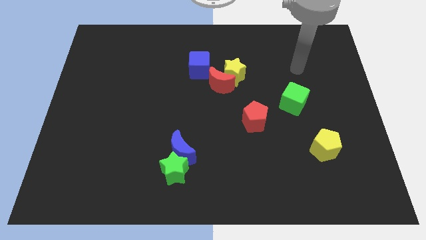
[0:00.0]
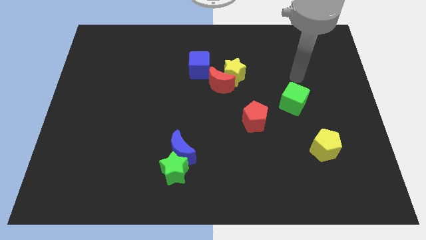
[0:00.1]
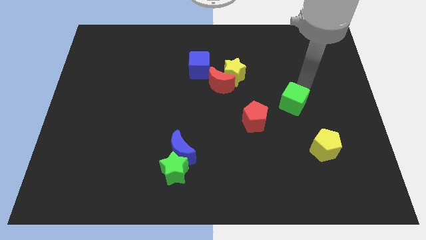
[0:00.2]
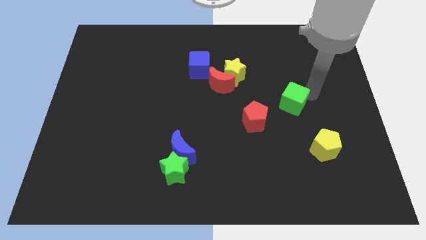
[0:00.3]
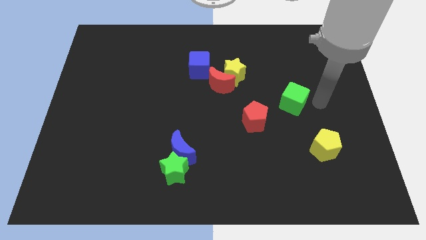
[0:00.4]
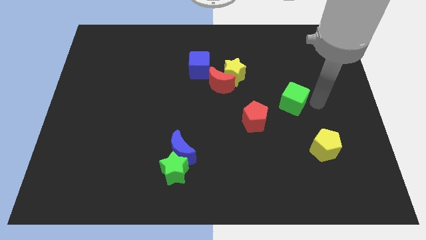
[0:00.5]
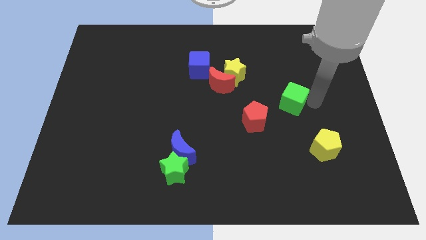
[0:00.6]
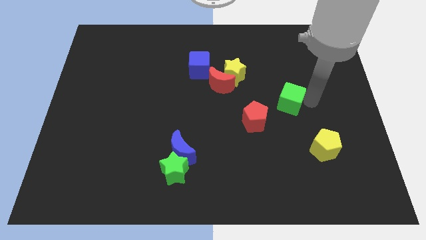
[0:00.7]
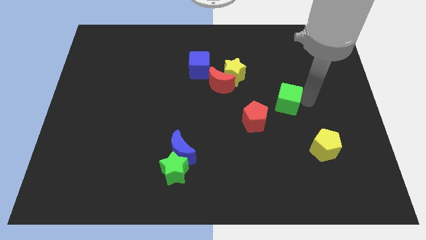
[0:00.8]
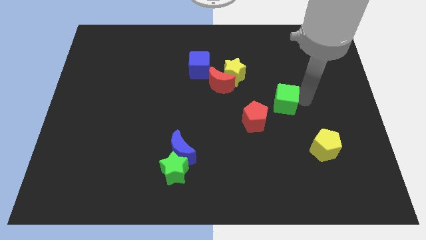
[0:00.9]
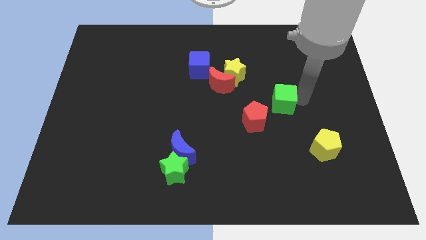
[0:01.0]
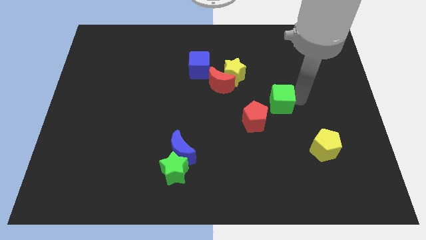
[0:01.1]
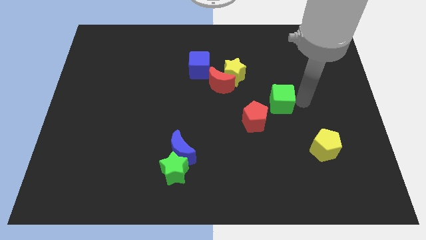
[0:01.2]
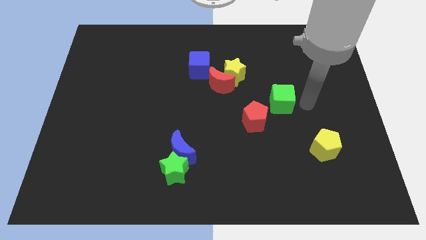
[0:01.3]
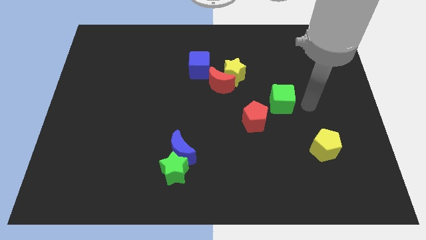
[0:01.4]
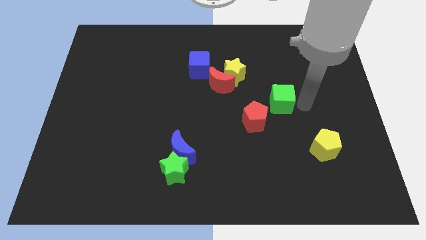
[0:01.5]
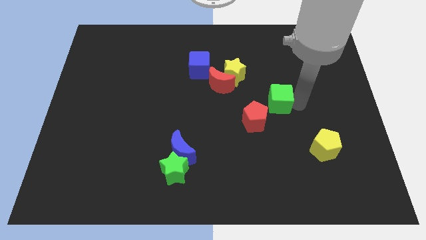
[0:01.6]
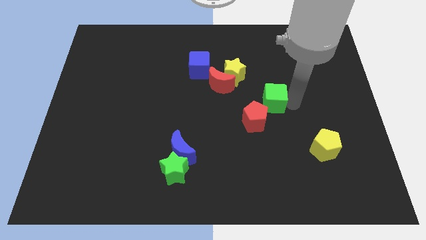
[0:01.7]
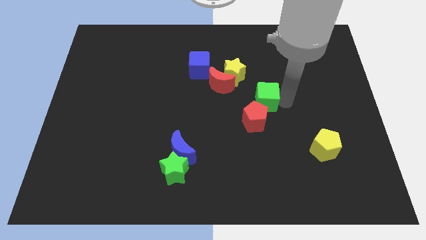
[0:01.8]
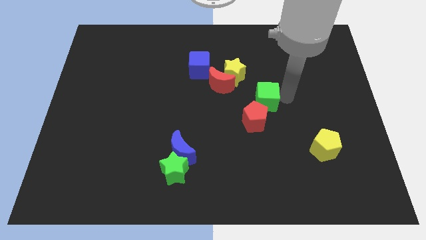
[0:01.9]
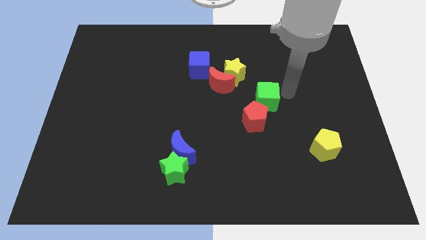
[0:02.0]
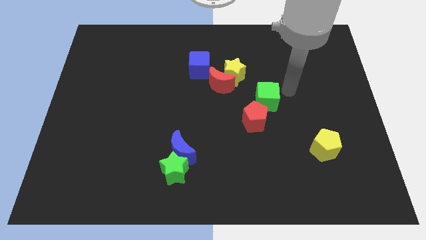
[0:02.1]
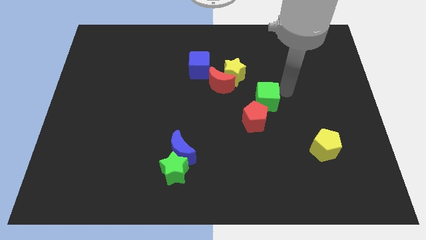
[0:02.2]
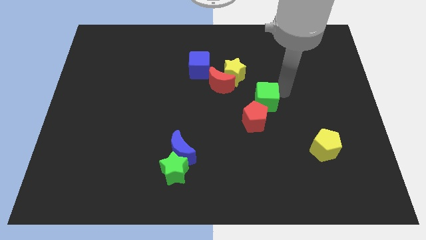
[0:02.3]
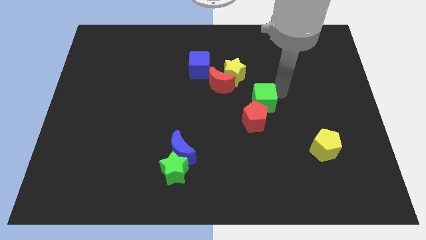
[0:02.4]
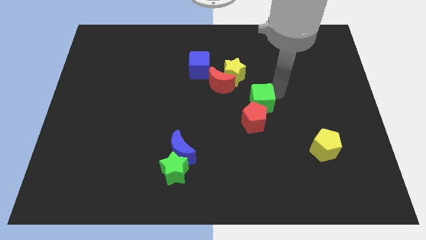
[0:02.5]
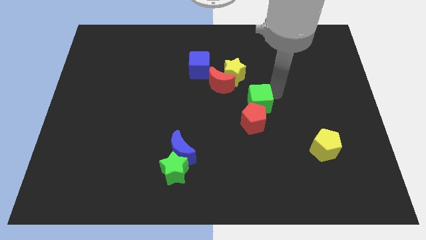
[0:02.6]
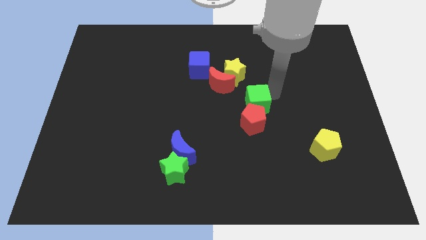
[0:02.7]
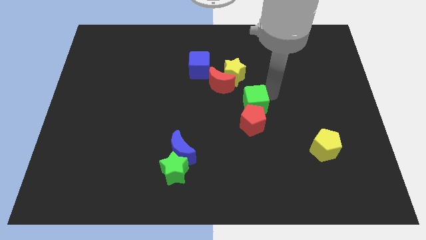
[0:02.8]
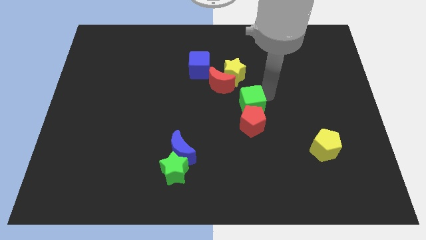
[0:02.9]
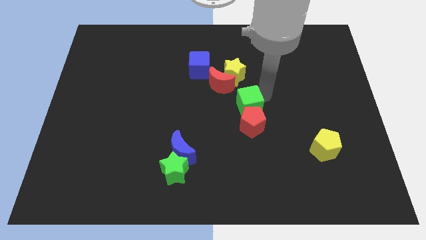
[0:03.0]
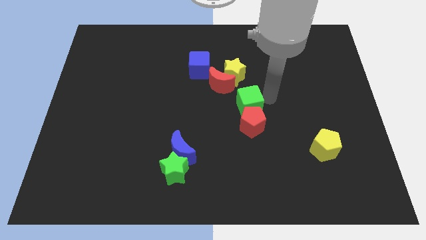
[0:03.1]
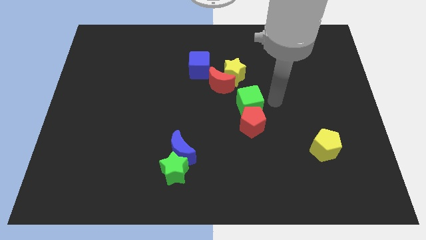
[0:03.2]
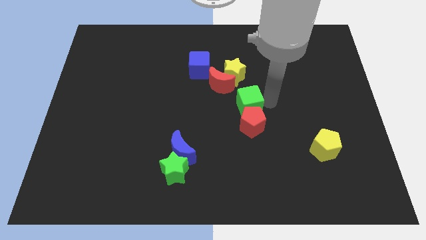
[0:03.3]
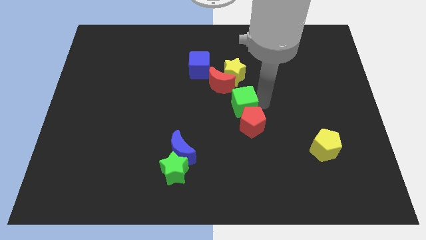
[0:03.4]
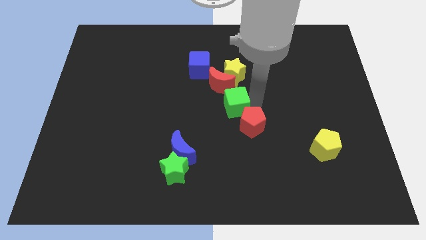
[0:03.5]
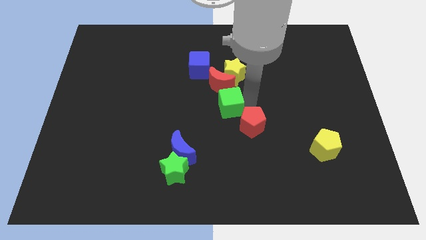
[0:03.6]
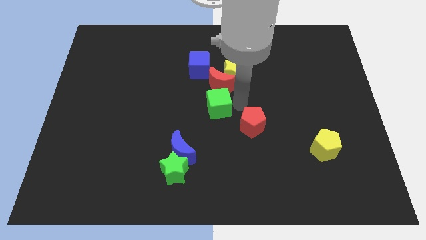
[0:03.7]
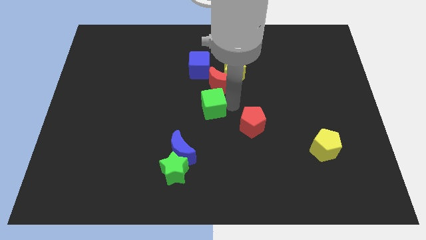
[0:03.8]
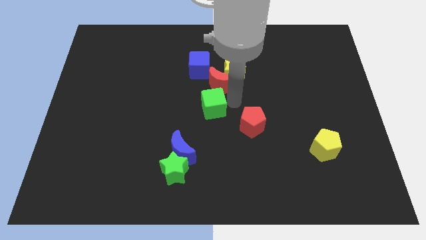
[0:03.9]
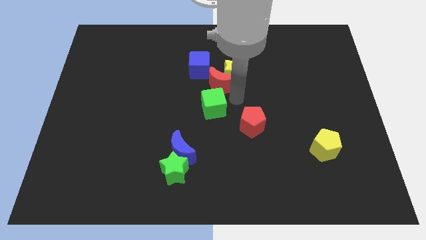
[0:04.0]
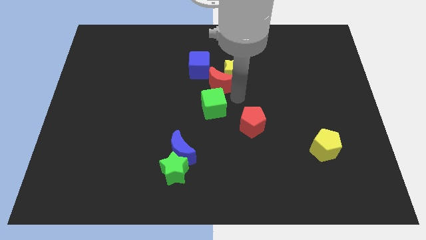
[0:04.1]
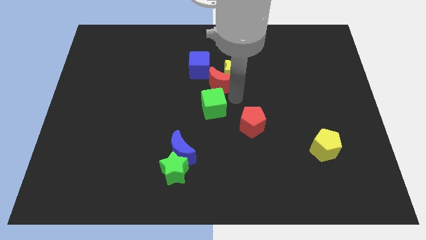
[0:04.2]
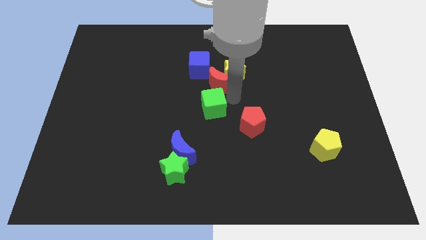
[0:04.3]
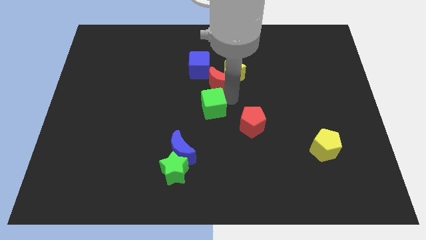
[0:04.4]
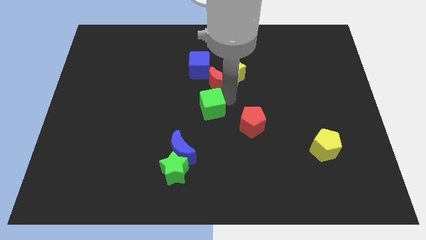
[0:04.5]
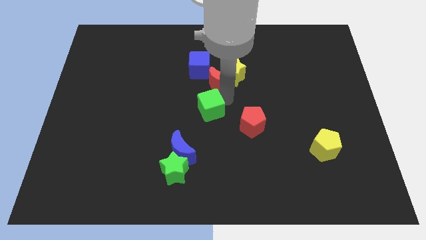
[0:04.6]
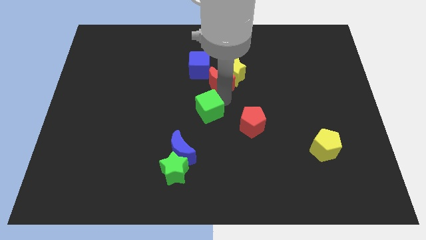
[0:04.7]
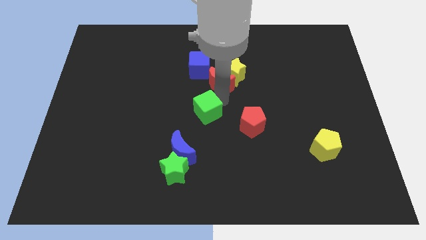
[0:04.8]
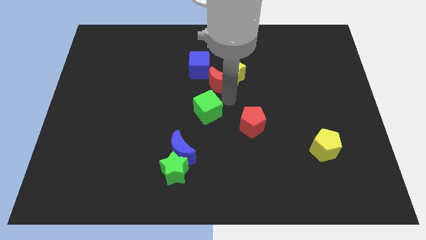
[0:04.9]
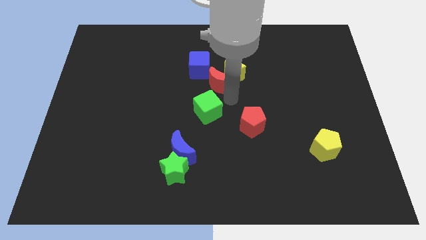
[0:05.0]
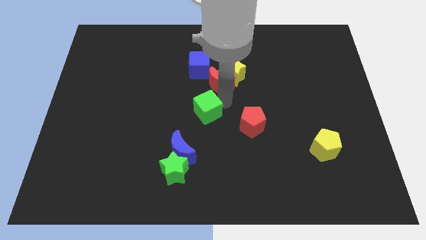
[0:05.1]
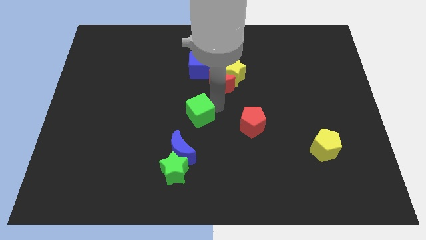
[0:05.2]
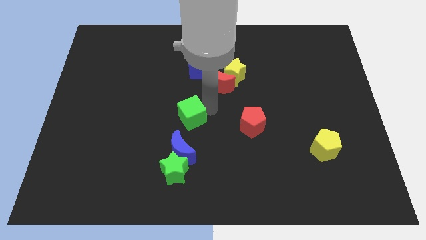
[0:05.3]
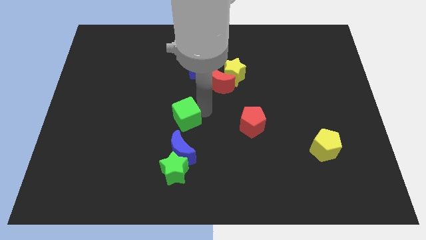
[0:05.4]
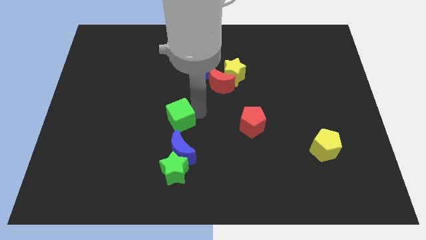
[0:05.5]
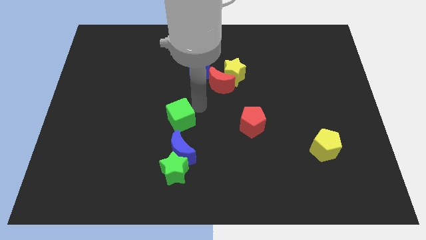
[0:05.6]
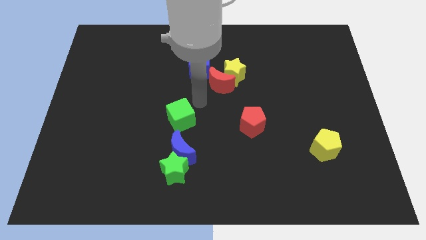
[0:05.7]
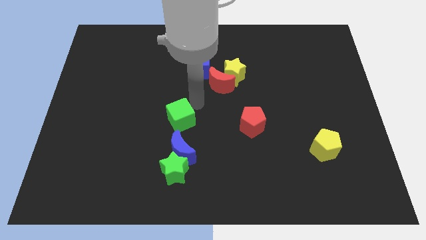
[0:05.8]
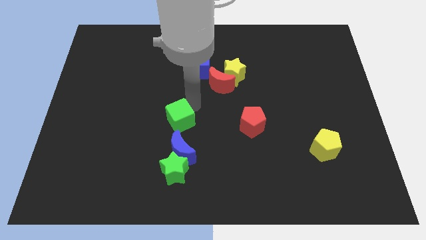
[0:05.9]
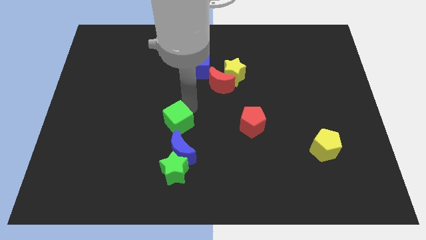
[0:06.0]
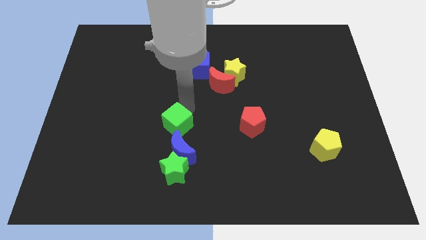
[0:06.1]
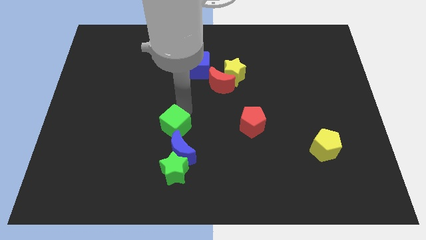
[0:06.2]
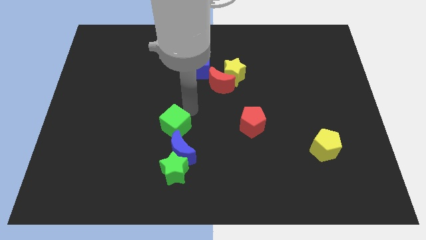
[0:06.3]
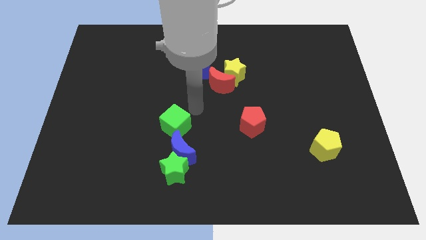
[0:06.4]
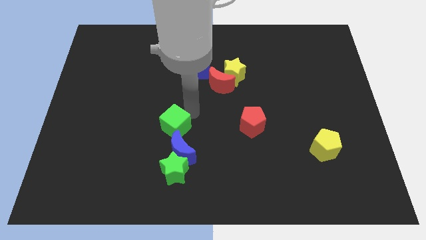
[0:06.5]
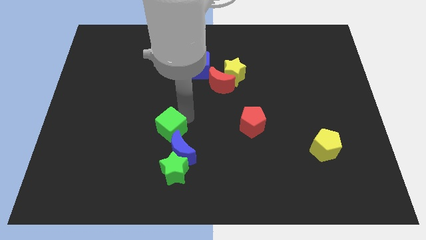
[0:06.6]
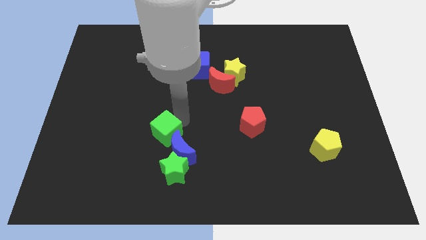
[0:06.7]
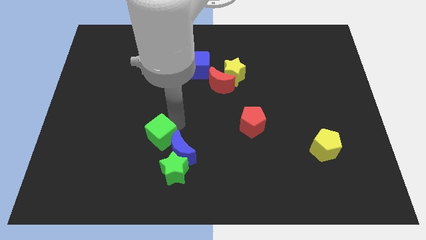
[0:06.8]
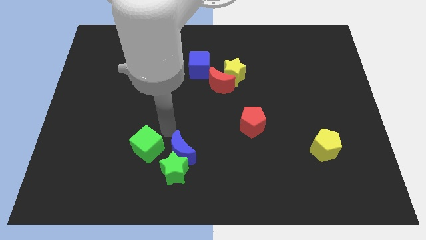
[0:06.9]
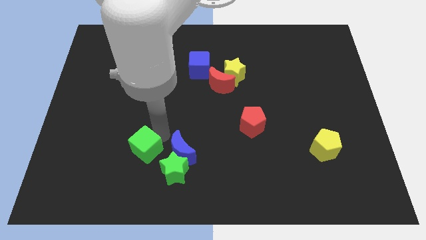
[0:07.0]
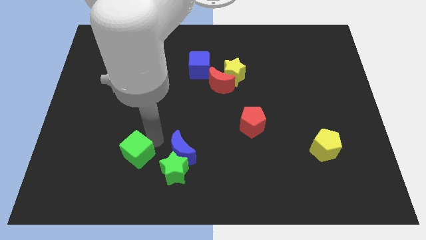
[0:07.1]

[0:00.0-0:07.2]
push the green cube to the left side of the green star

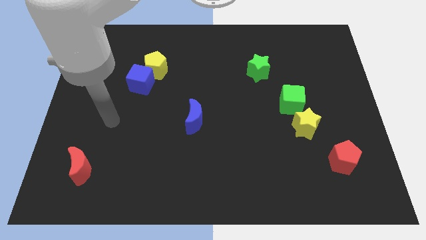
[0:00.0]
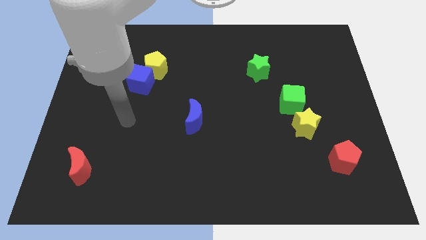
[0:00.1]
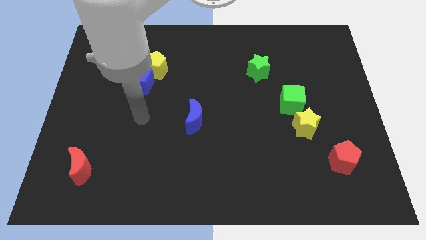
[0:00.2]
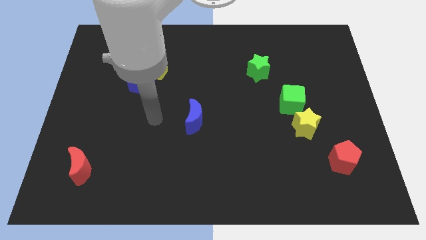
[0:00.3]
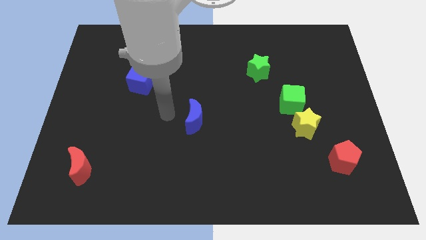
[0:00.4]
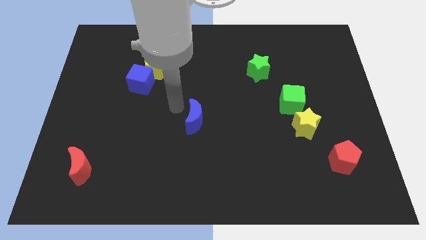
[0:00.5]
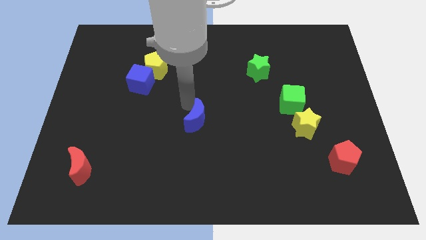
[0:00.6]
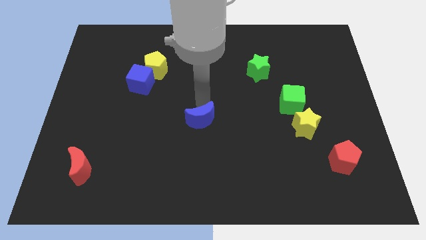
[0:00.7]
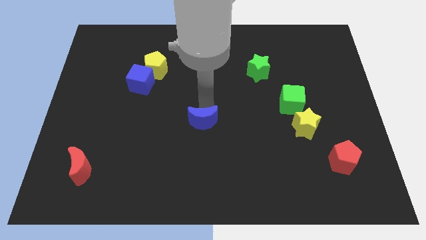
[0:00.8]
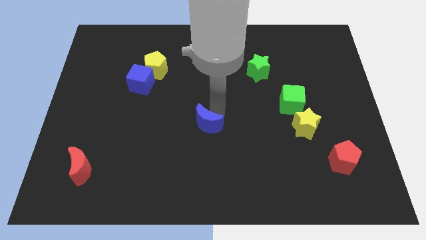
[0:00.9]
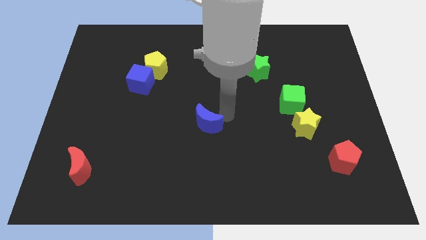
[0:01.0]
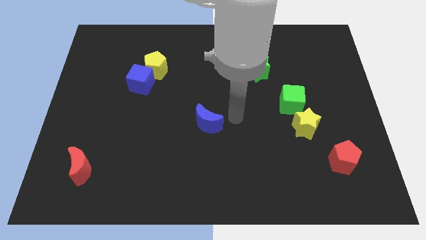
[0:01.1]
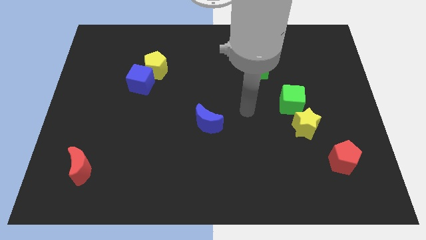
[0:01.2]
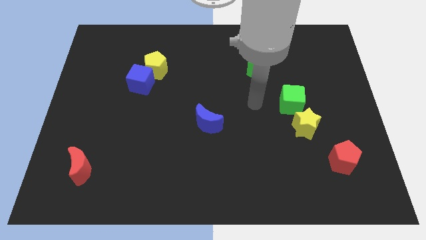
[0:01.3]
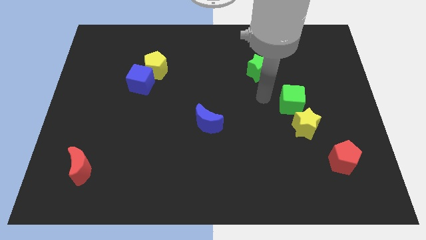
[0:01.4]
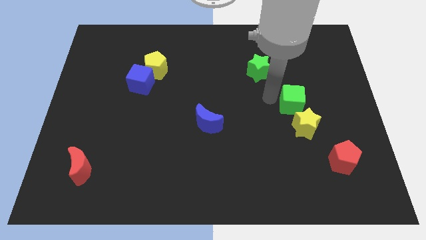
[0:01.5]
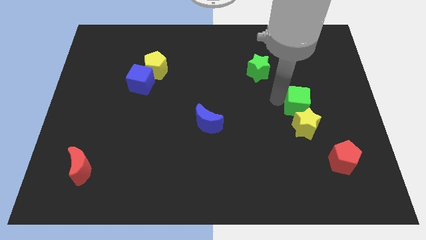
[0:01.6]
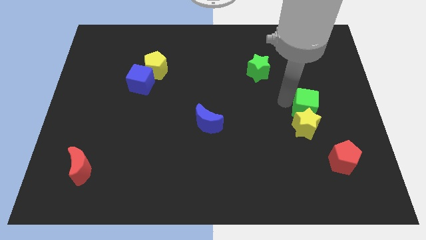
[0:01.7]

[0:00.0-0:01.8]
push the green cube to the top right of the yellow star
